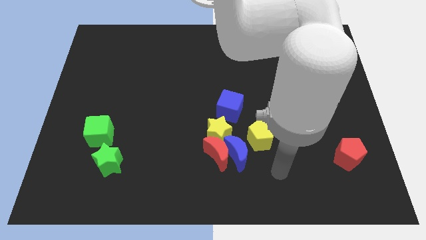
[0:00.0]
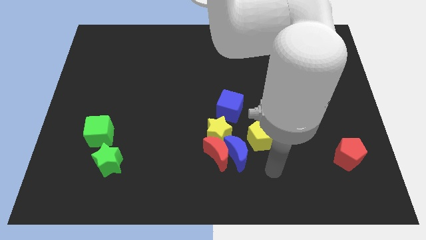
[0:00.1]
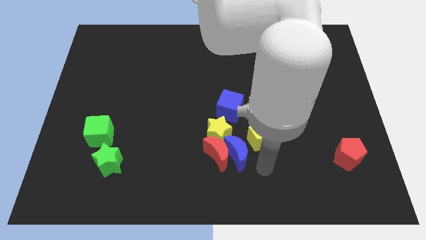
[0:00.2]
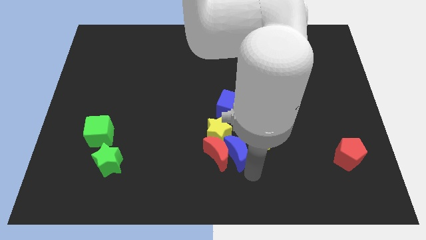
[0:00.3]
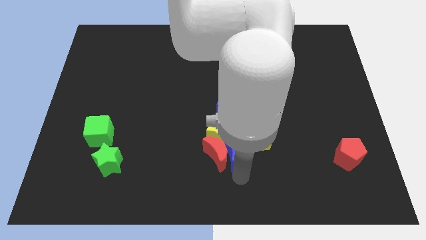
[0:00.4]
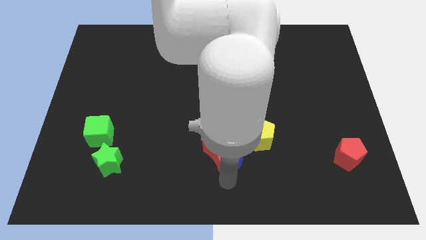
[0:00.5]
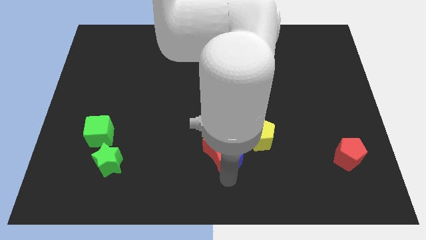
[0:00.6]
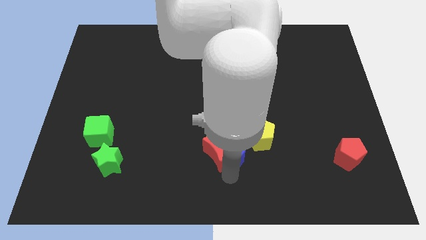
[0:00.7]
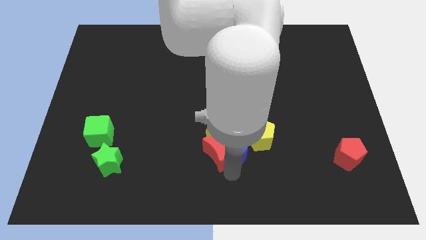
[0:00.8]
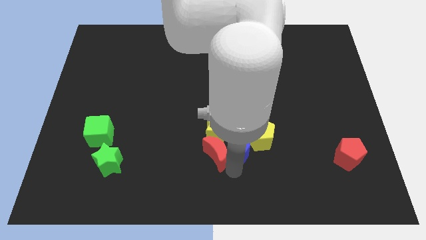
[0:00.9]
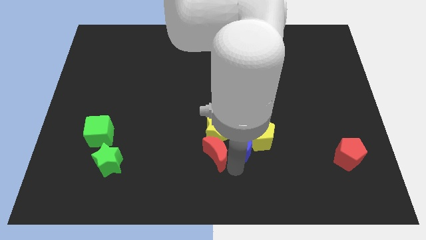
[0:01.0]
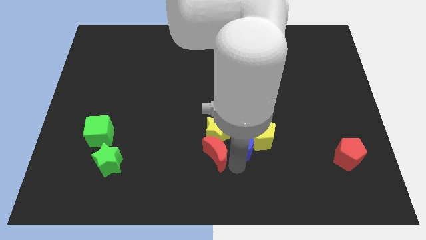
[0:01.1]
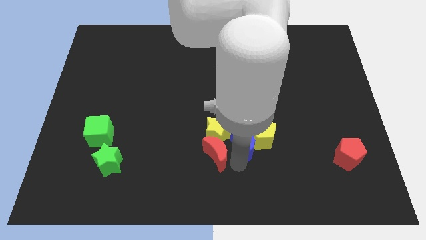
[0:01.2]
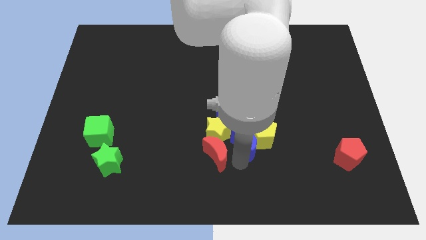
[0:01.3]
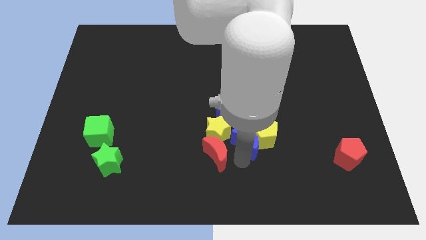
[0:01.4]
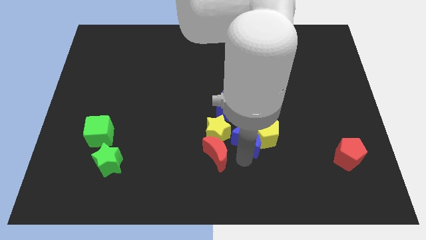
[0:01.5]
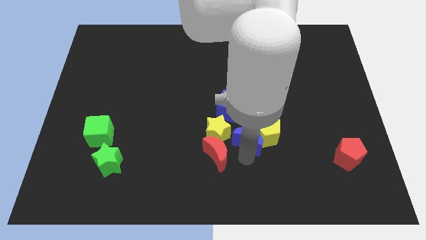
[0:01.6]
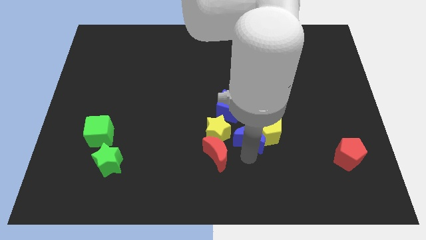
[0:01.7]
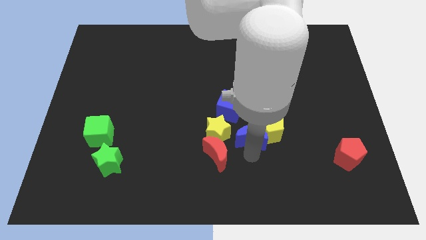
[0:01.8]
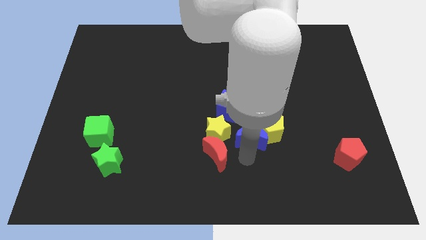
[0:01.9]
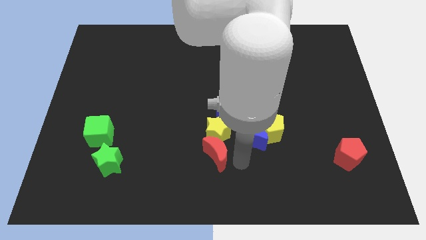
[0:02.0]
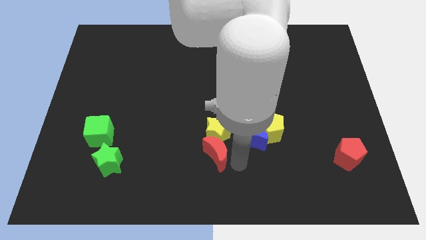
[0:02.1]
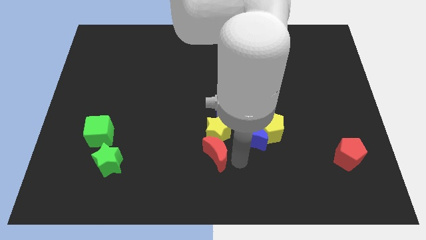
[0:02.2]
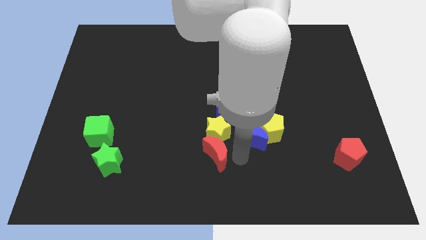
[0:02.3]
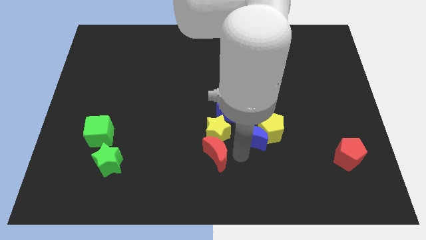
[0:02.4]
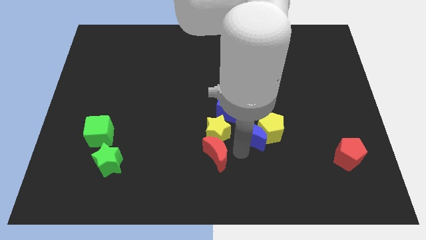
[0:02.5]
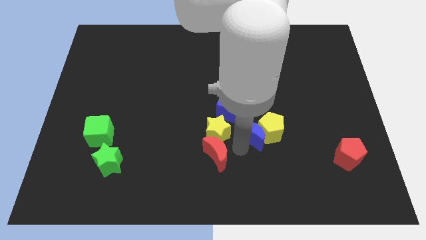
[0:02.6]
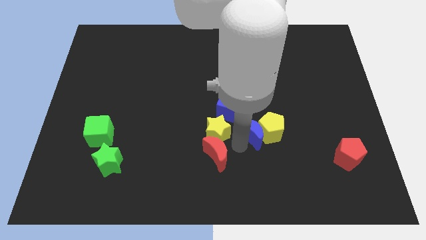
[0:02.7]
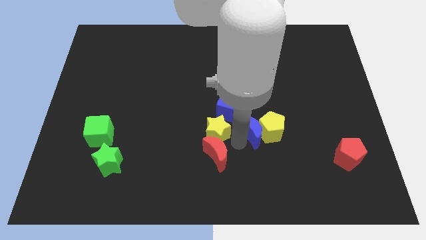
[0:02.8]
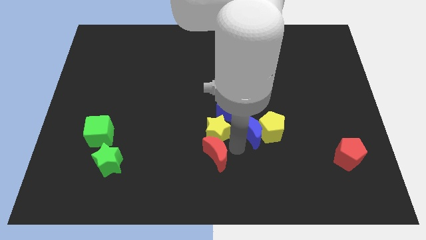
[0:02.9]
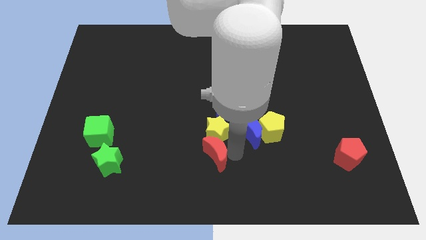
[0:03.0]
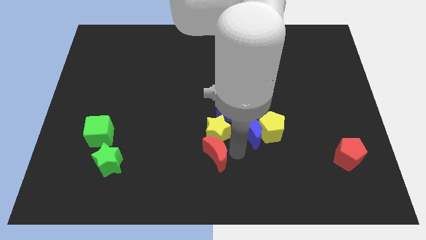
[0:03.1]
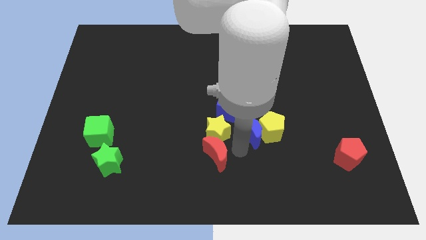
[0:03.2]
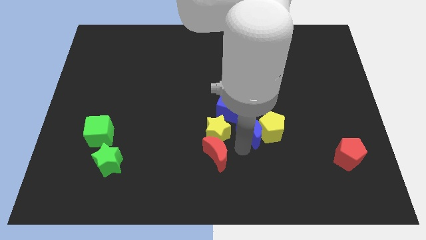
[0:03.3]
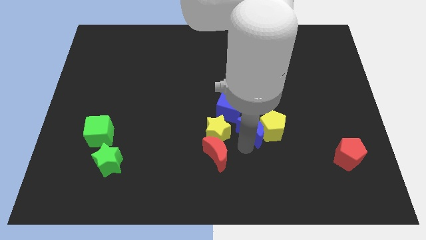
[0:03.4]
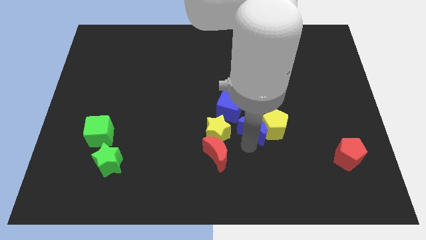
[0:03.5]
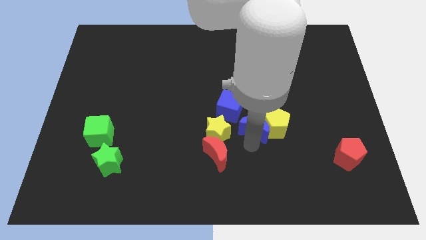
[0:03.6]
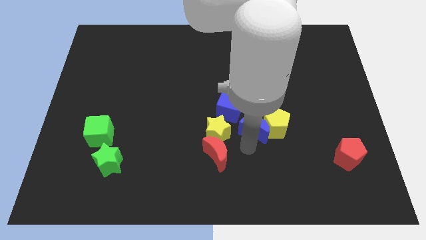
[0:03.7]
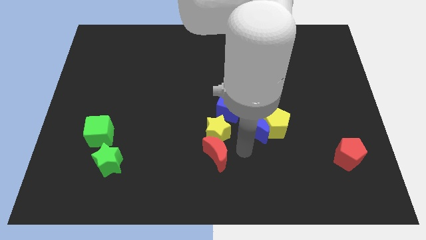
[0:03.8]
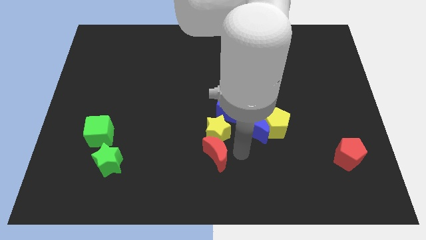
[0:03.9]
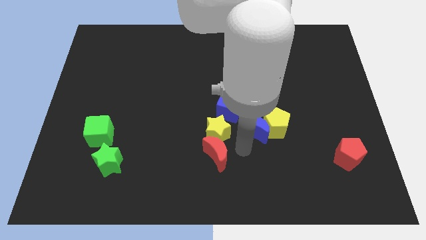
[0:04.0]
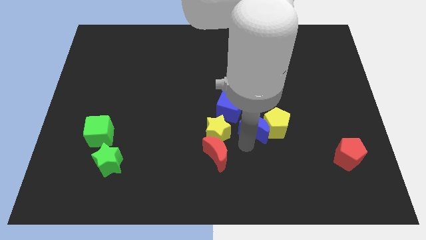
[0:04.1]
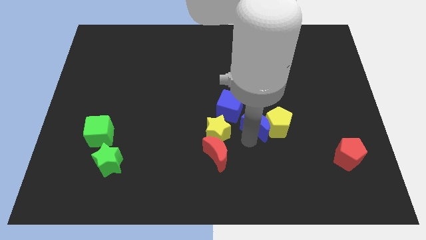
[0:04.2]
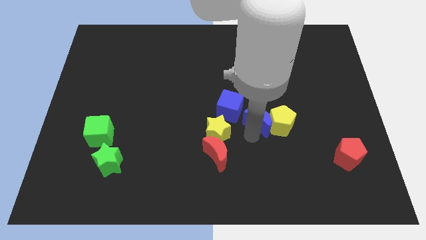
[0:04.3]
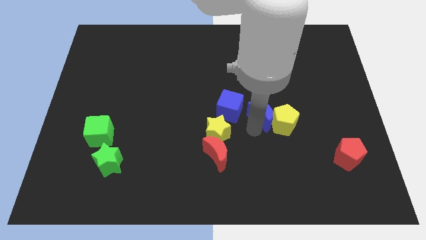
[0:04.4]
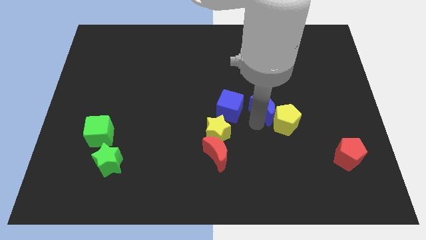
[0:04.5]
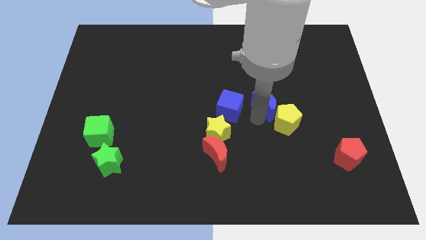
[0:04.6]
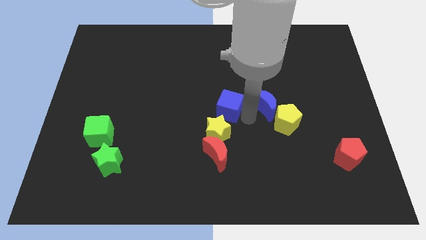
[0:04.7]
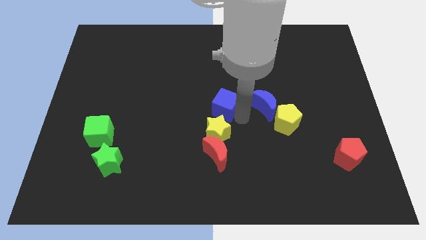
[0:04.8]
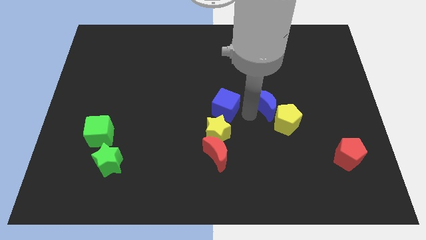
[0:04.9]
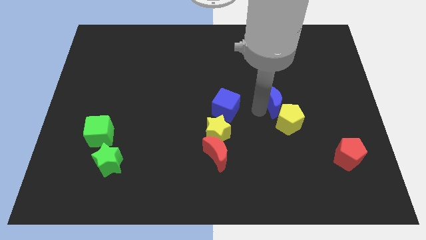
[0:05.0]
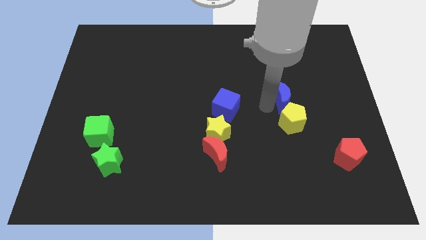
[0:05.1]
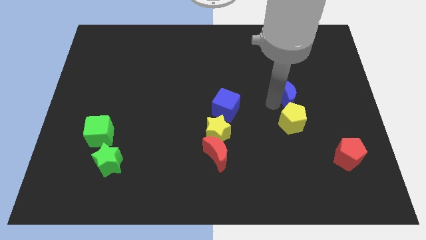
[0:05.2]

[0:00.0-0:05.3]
push the blue moon up and to the right

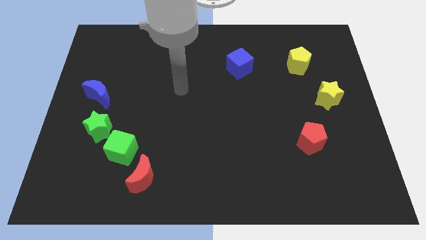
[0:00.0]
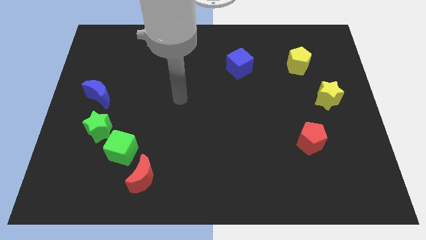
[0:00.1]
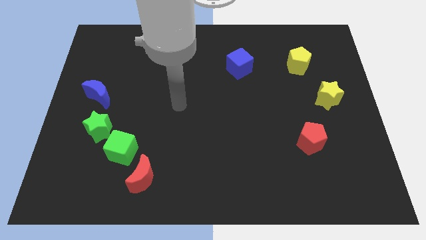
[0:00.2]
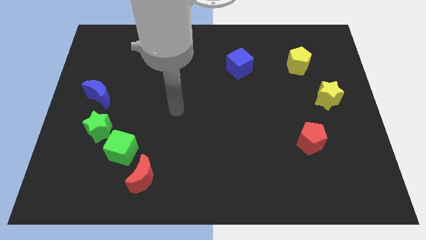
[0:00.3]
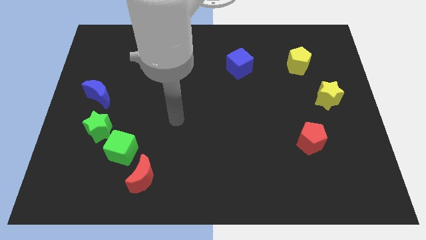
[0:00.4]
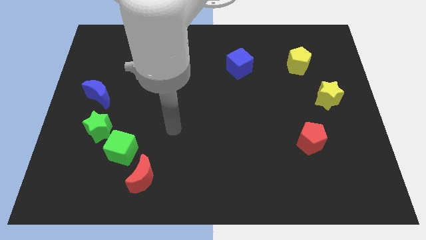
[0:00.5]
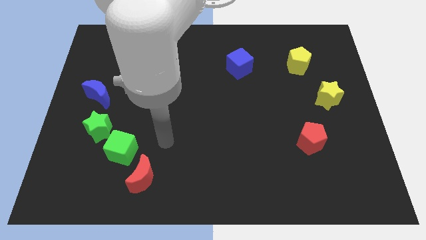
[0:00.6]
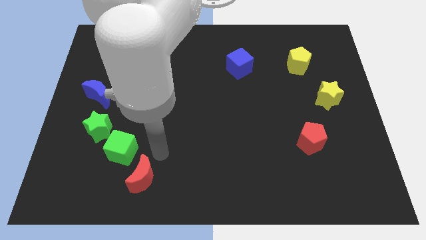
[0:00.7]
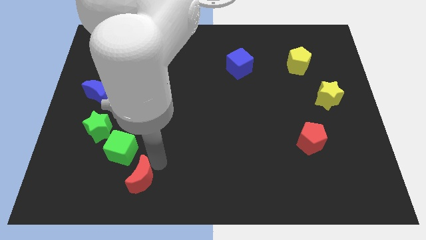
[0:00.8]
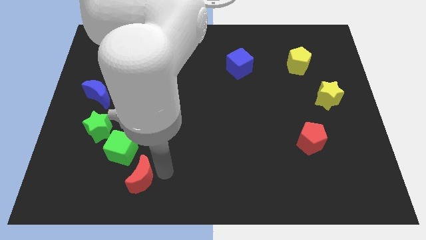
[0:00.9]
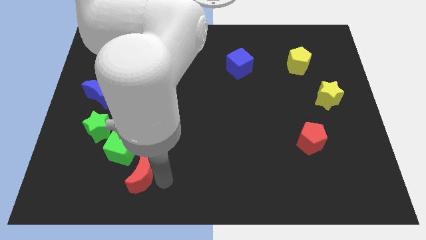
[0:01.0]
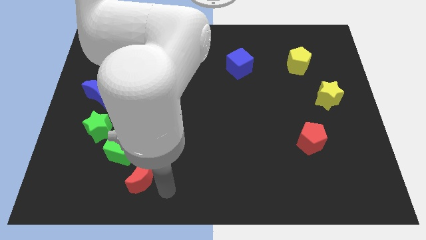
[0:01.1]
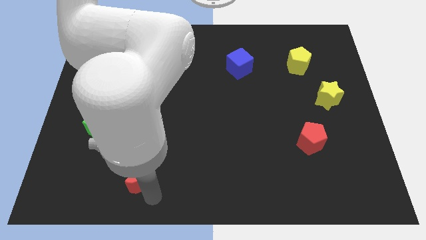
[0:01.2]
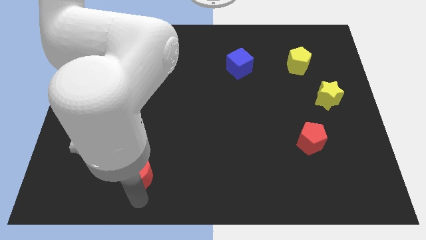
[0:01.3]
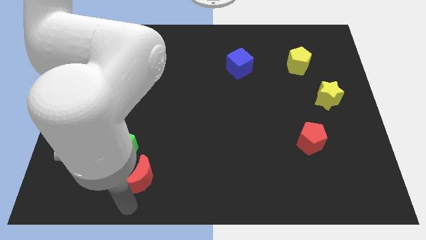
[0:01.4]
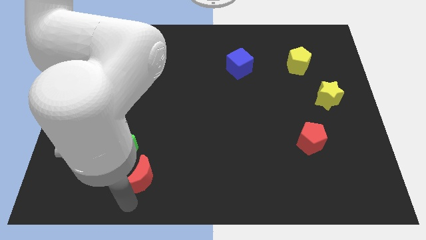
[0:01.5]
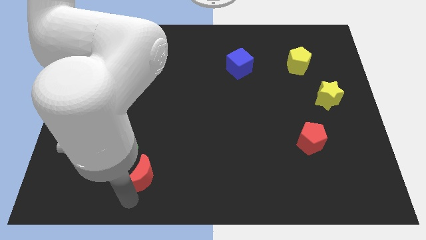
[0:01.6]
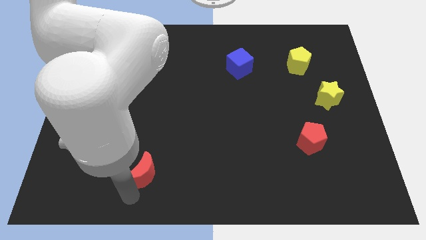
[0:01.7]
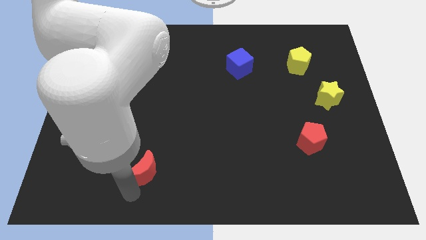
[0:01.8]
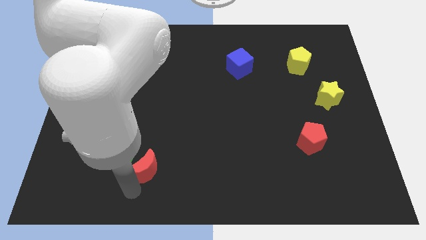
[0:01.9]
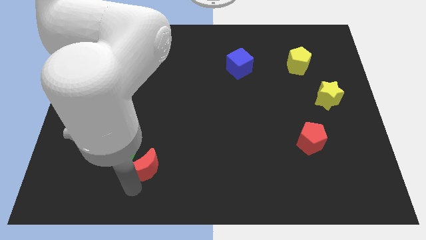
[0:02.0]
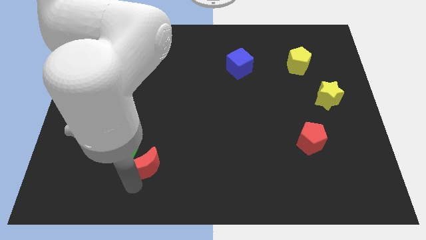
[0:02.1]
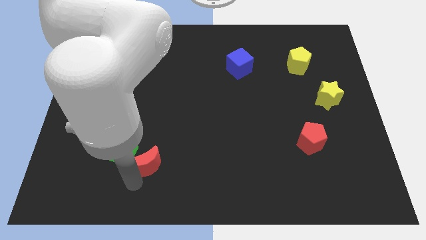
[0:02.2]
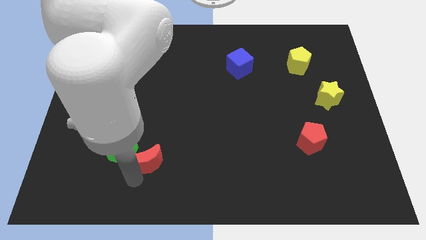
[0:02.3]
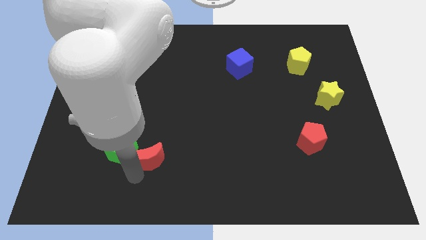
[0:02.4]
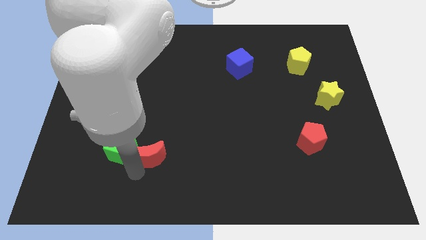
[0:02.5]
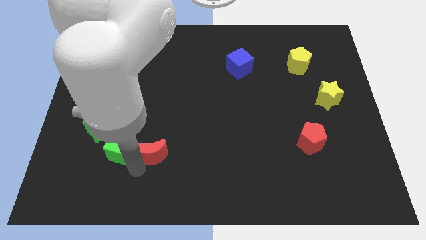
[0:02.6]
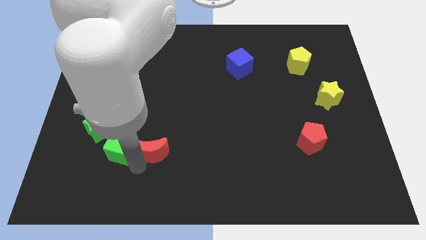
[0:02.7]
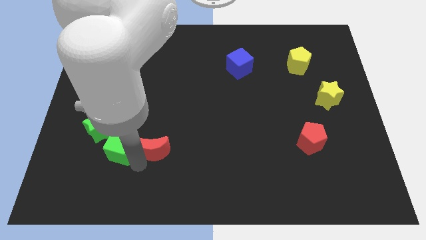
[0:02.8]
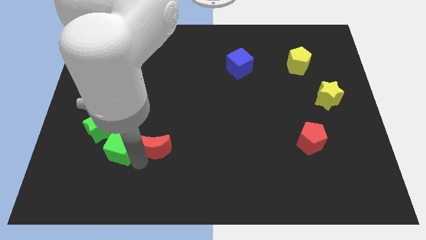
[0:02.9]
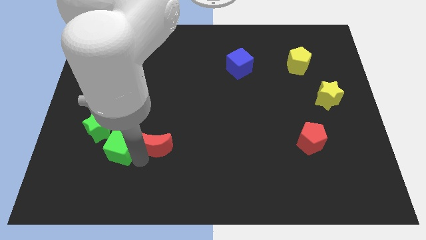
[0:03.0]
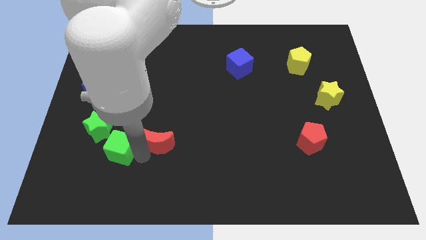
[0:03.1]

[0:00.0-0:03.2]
slightly push the red moon diagonally upwards and to the right
